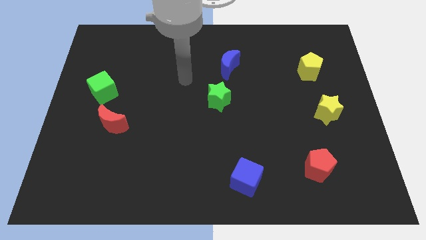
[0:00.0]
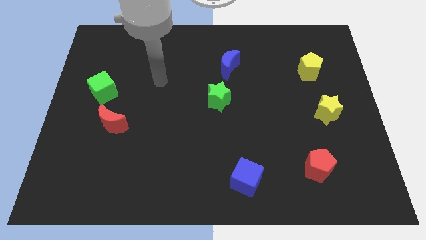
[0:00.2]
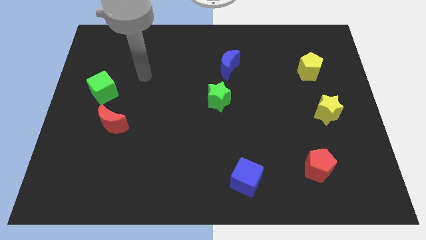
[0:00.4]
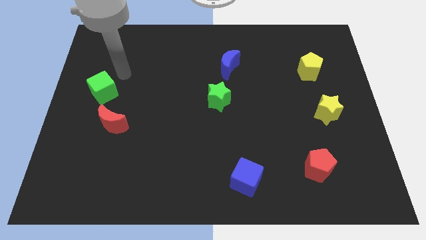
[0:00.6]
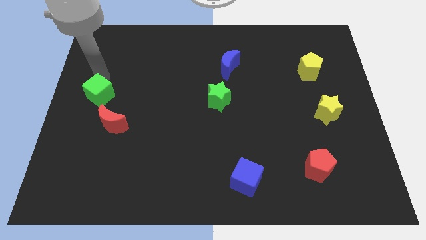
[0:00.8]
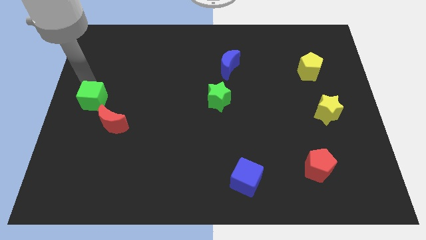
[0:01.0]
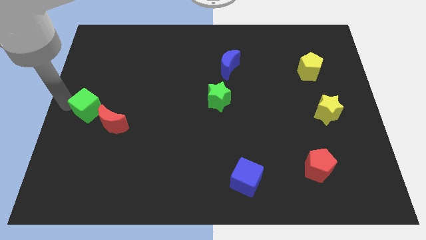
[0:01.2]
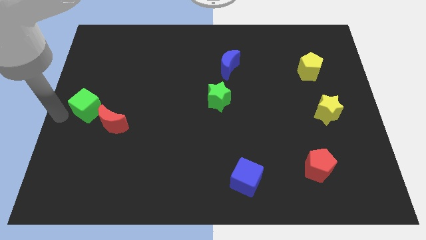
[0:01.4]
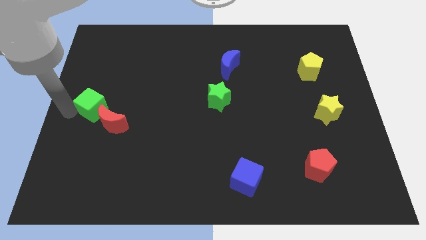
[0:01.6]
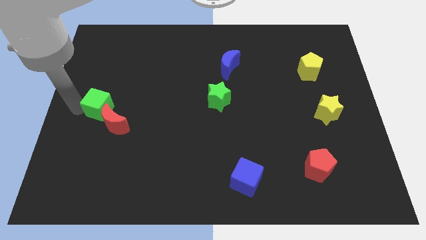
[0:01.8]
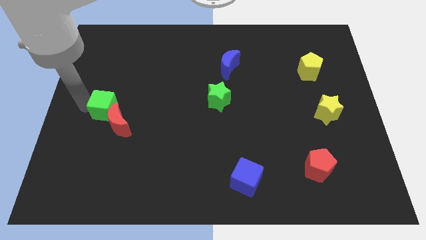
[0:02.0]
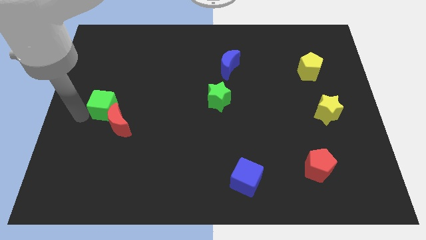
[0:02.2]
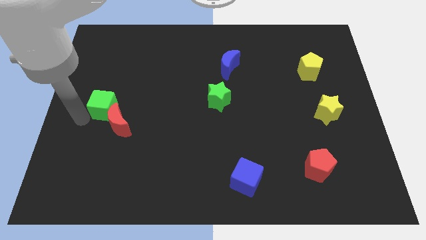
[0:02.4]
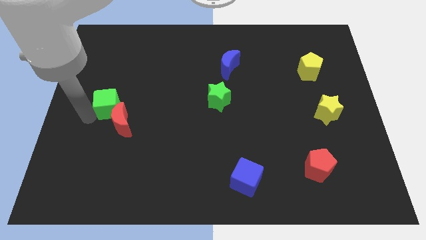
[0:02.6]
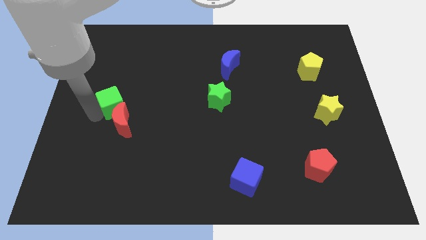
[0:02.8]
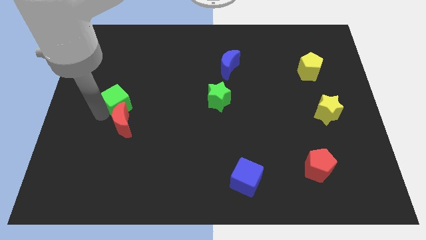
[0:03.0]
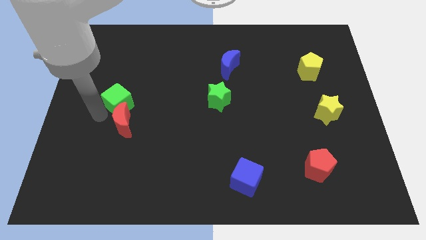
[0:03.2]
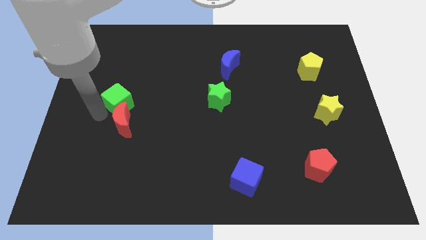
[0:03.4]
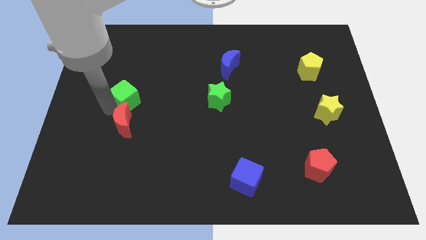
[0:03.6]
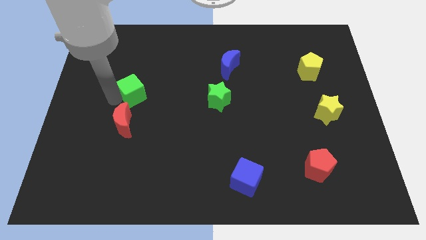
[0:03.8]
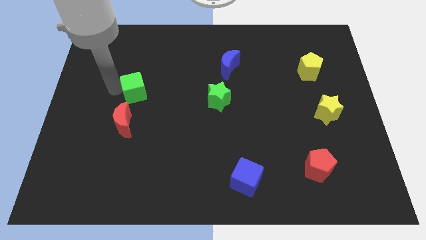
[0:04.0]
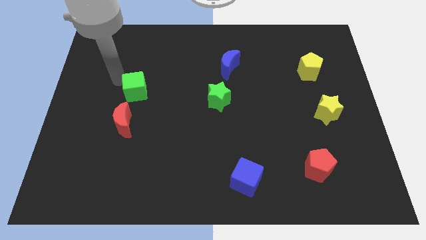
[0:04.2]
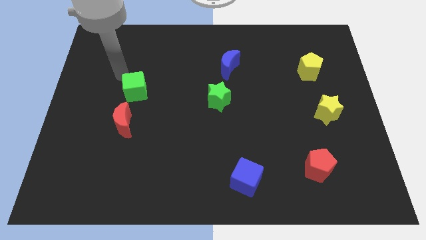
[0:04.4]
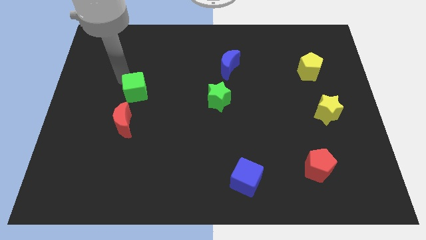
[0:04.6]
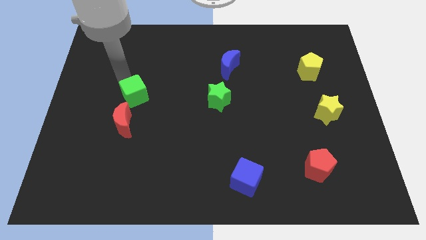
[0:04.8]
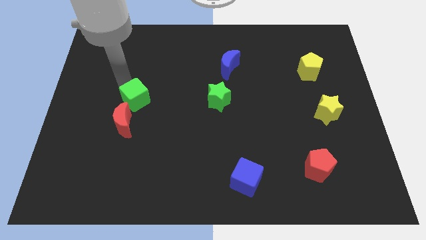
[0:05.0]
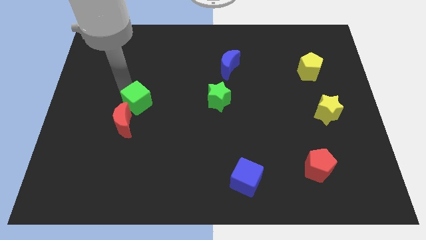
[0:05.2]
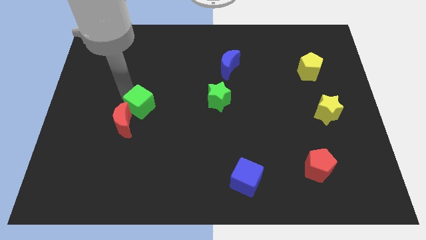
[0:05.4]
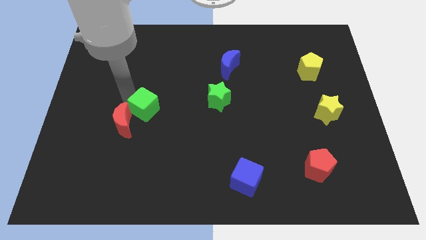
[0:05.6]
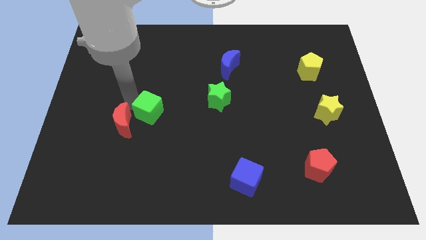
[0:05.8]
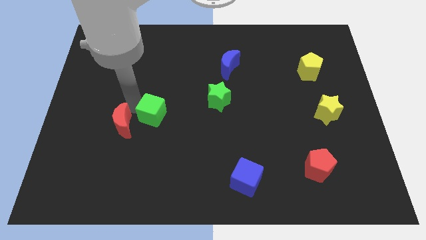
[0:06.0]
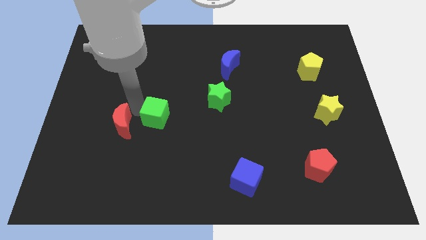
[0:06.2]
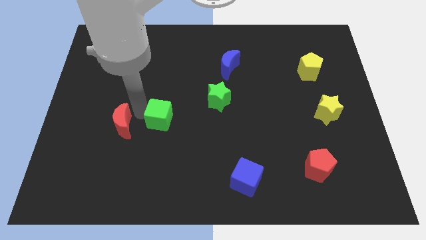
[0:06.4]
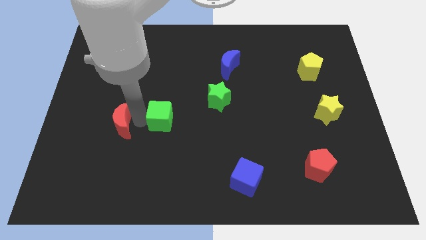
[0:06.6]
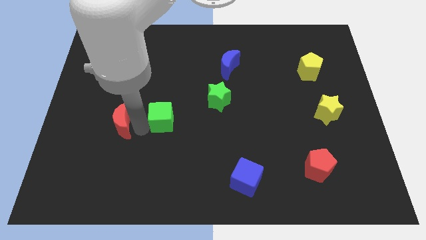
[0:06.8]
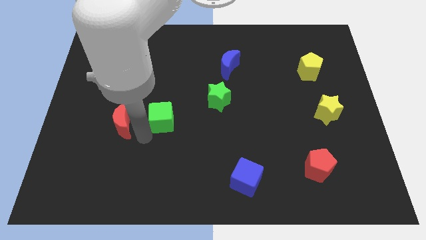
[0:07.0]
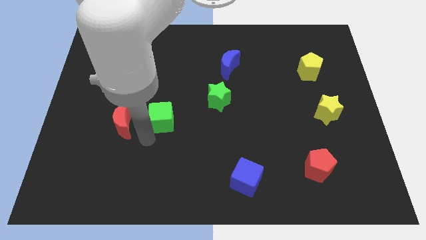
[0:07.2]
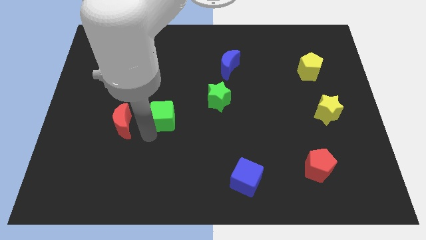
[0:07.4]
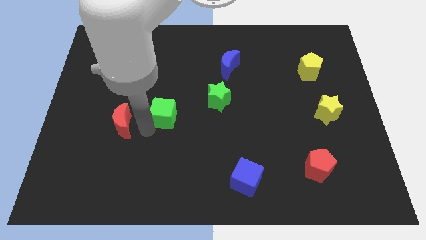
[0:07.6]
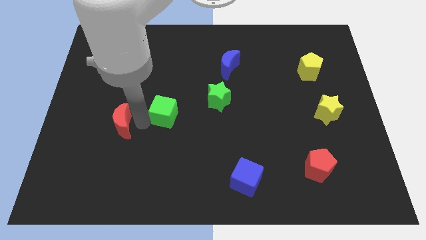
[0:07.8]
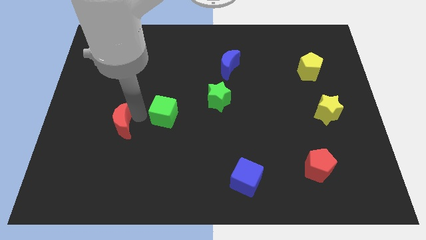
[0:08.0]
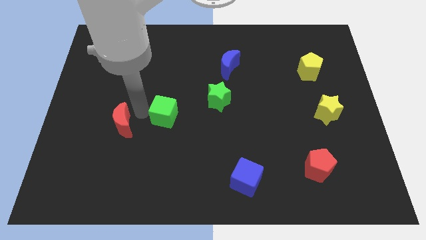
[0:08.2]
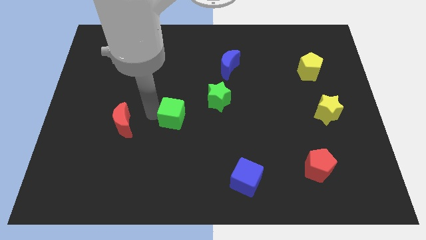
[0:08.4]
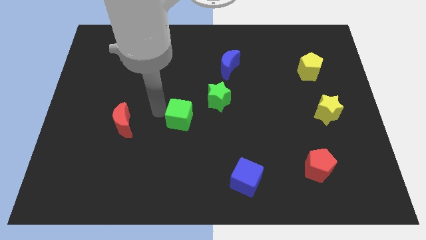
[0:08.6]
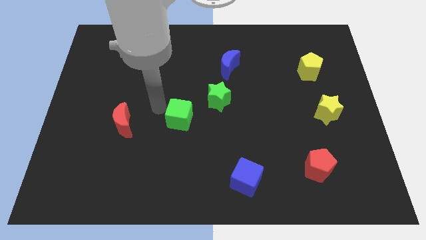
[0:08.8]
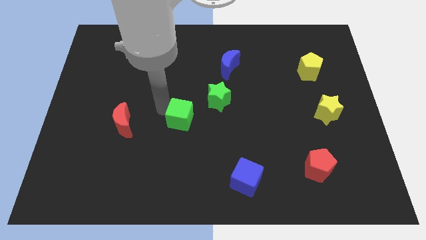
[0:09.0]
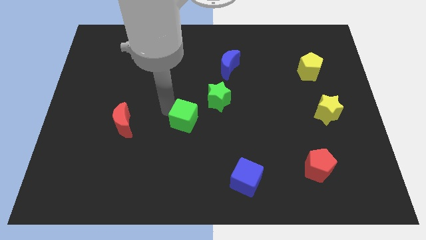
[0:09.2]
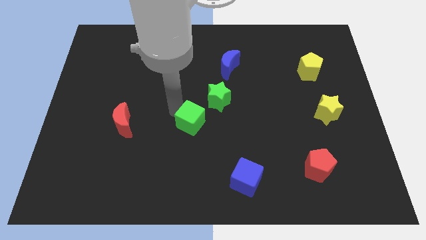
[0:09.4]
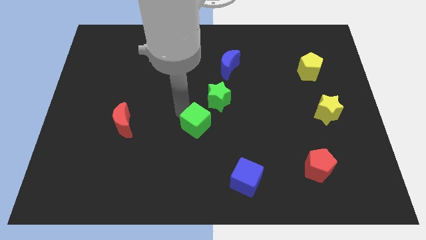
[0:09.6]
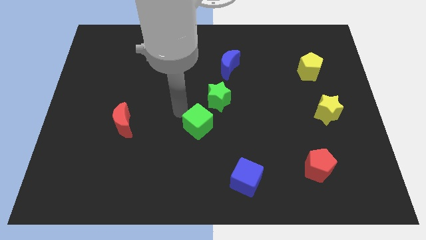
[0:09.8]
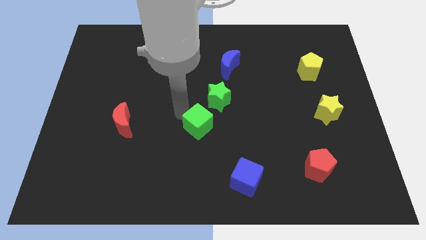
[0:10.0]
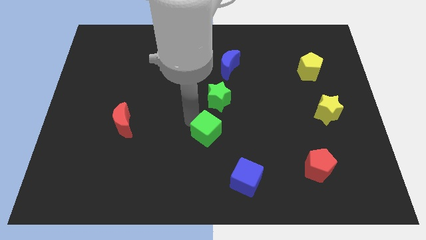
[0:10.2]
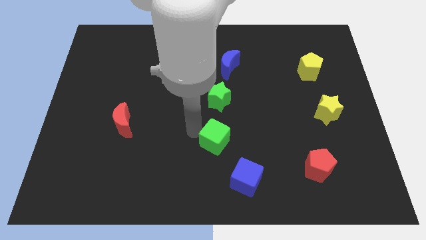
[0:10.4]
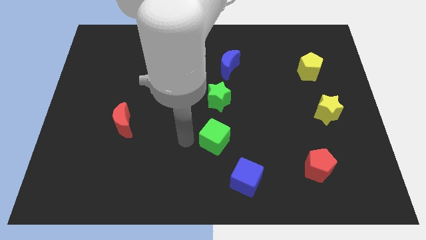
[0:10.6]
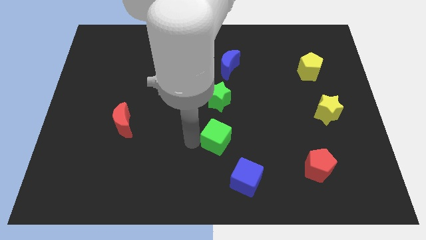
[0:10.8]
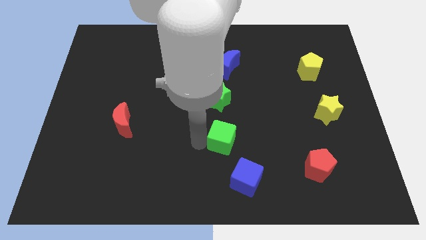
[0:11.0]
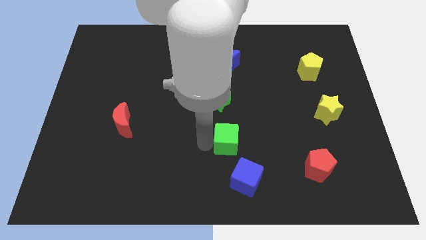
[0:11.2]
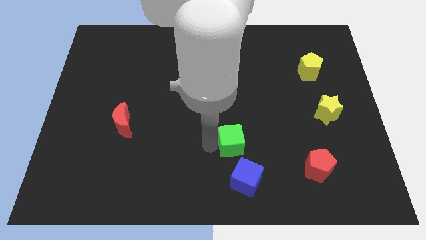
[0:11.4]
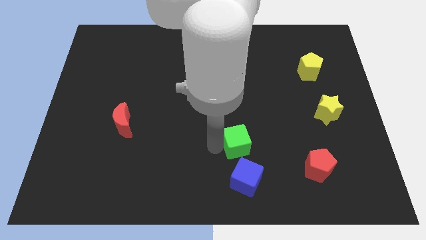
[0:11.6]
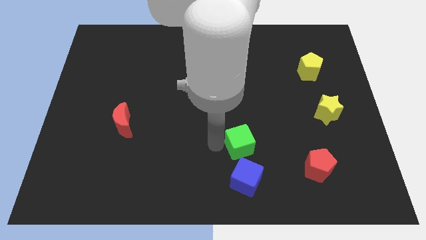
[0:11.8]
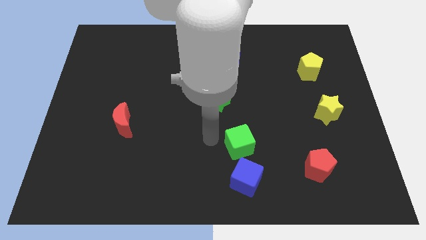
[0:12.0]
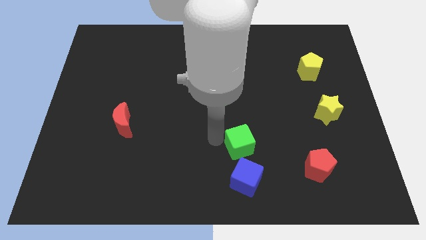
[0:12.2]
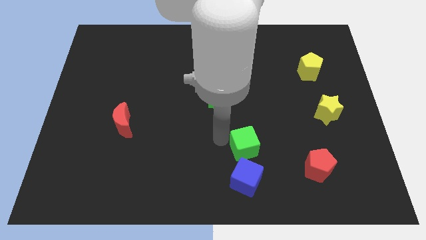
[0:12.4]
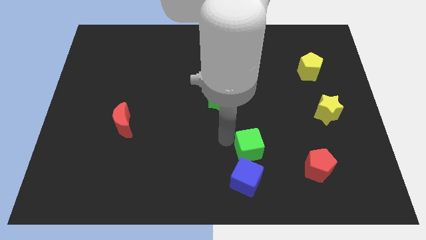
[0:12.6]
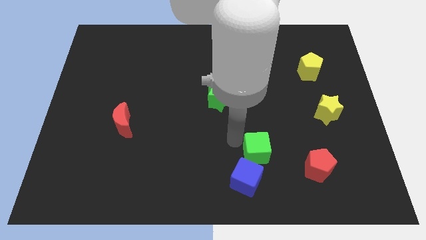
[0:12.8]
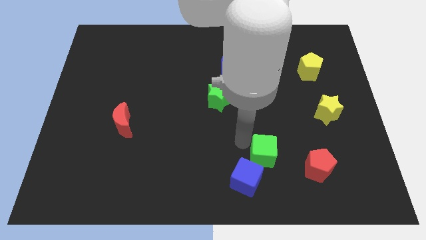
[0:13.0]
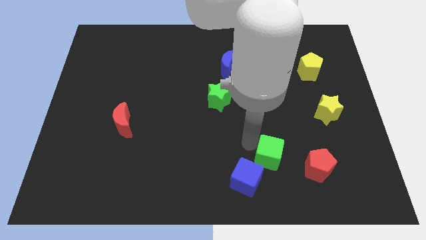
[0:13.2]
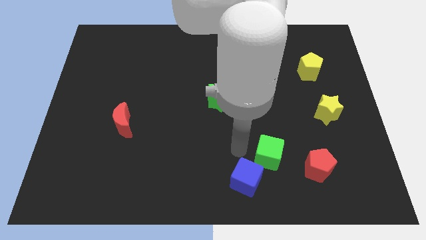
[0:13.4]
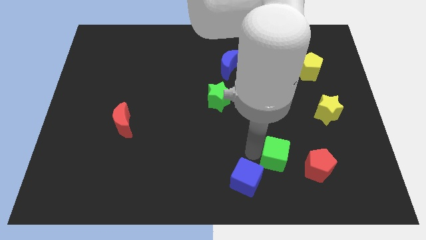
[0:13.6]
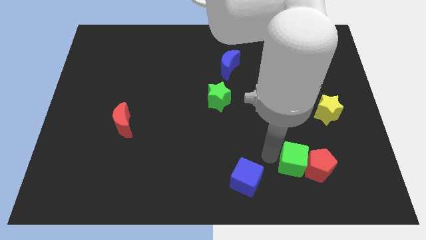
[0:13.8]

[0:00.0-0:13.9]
push the green cube close to the red pentagon

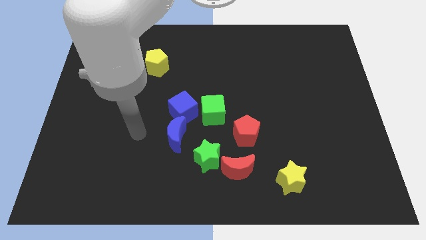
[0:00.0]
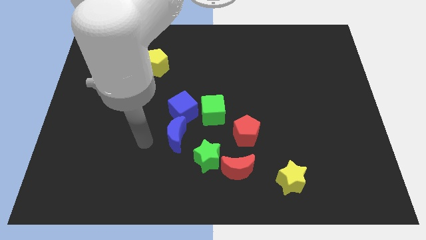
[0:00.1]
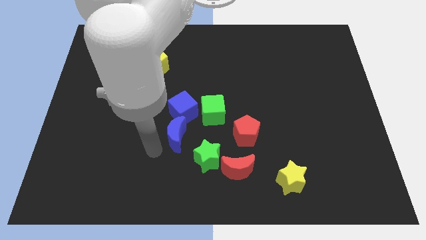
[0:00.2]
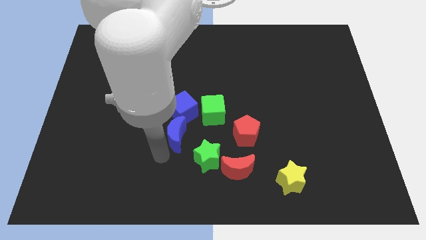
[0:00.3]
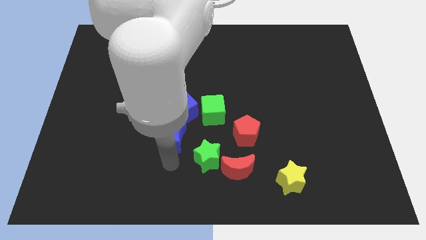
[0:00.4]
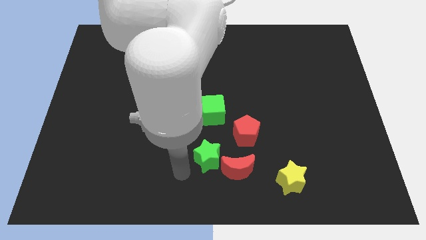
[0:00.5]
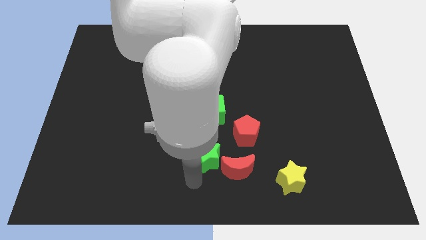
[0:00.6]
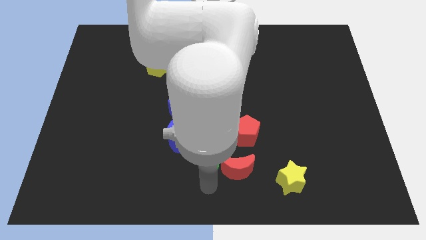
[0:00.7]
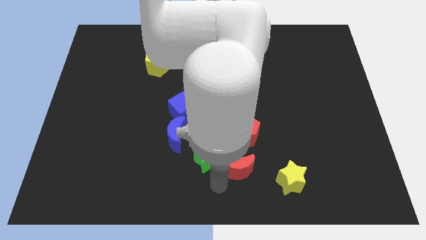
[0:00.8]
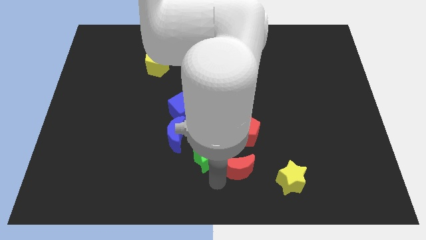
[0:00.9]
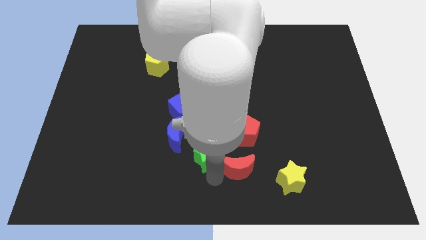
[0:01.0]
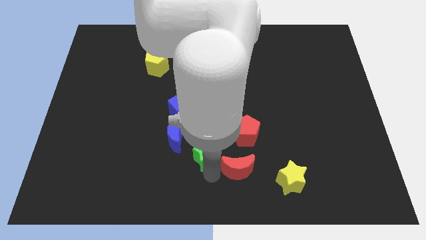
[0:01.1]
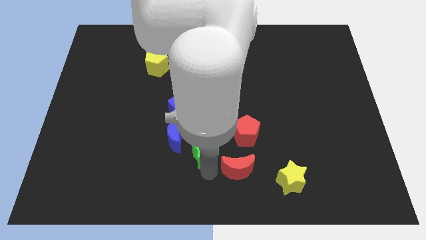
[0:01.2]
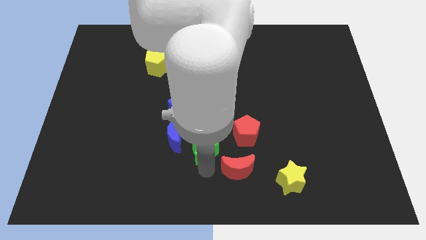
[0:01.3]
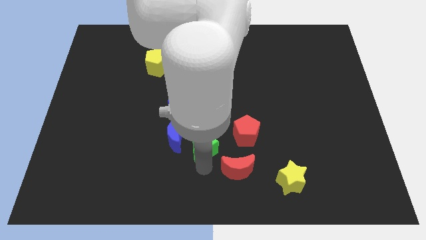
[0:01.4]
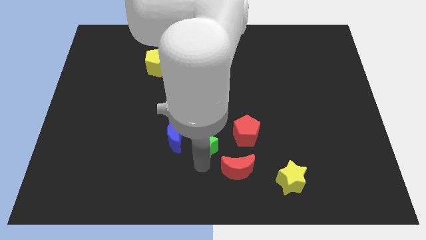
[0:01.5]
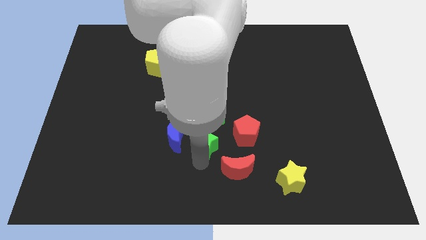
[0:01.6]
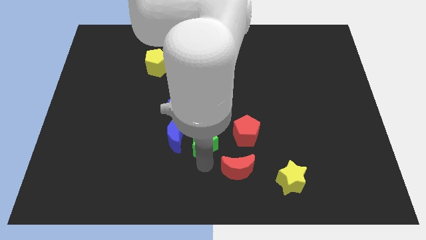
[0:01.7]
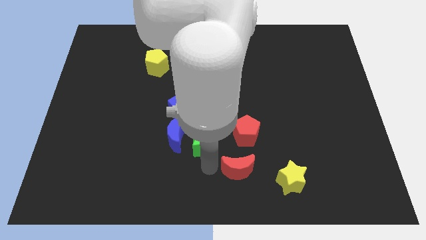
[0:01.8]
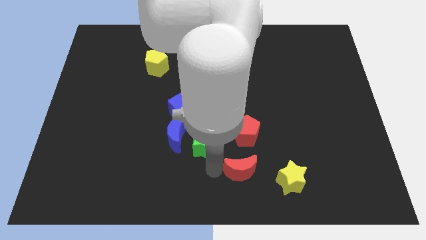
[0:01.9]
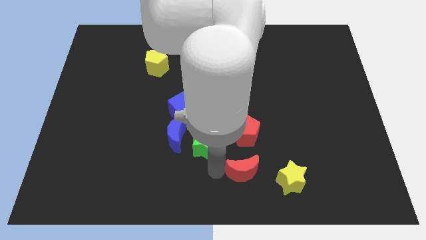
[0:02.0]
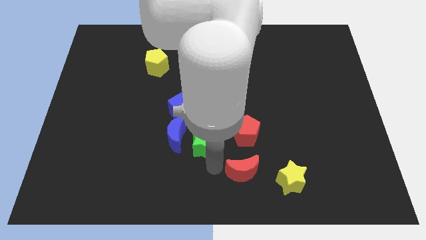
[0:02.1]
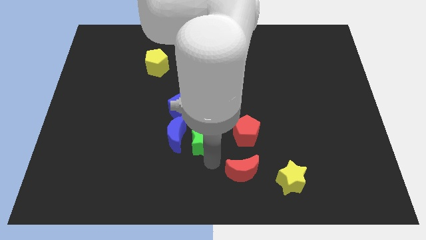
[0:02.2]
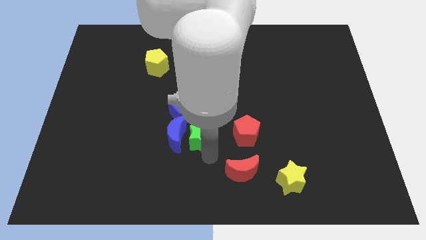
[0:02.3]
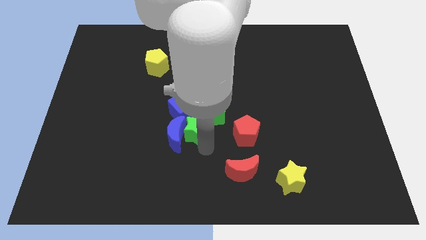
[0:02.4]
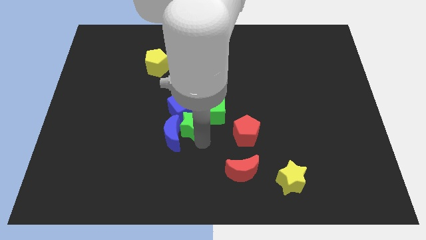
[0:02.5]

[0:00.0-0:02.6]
slide the green star towards the blue cube
